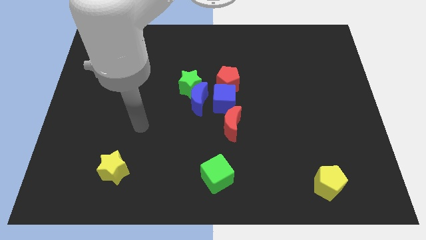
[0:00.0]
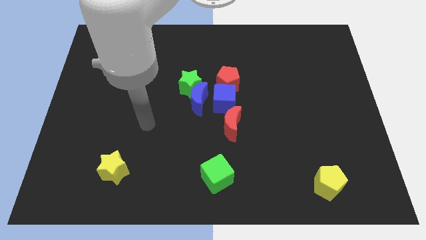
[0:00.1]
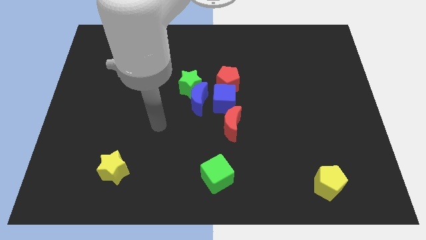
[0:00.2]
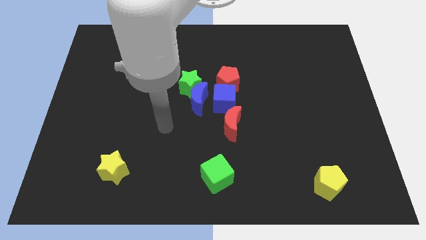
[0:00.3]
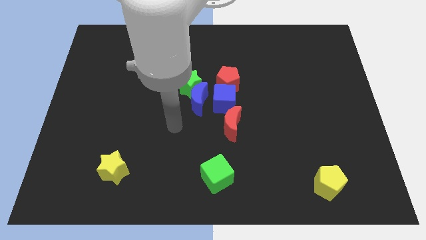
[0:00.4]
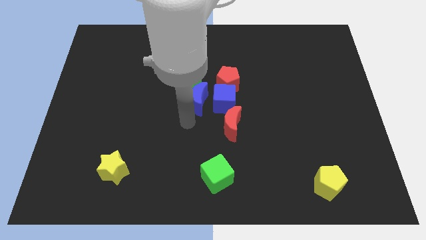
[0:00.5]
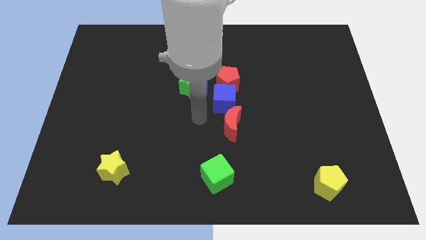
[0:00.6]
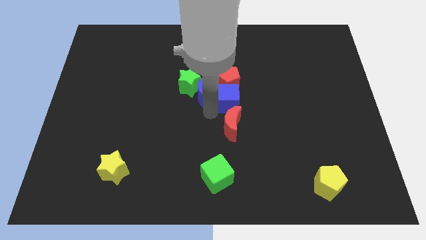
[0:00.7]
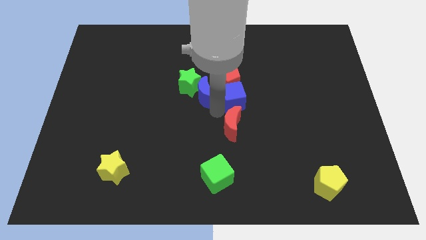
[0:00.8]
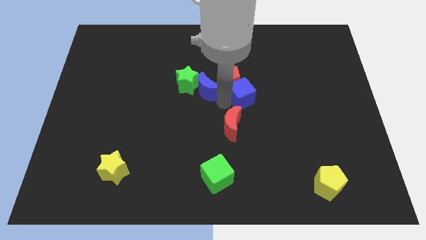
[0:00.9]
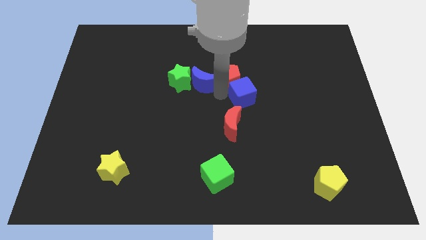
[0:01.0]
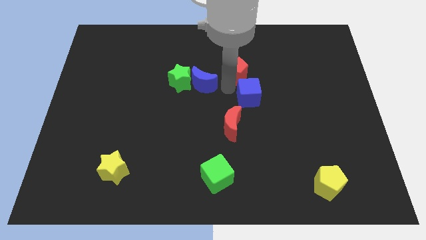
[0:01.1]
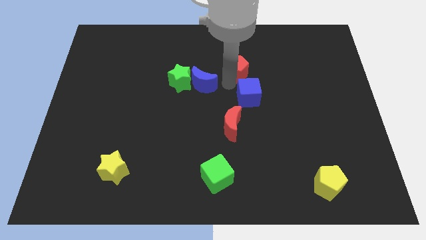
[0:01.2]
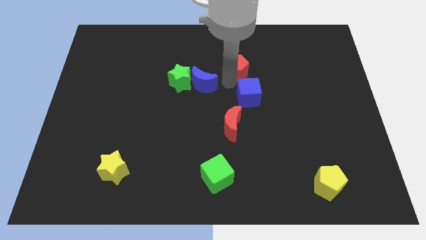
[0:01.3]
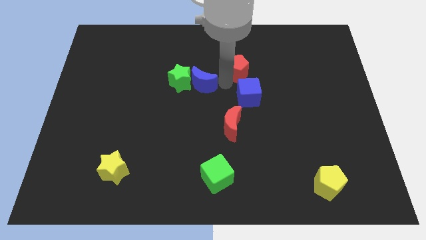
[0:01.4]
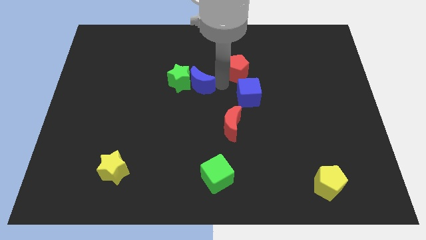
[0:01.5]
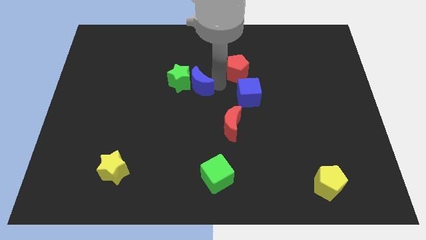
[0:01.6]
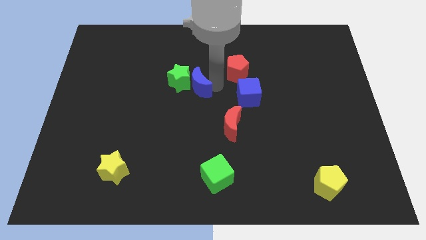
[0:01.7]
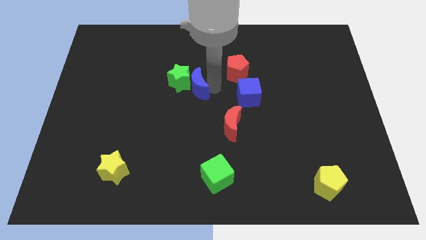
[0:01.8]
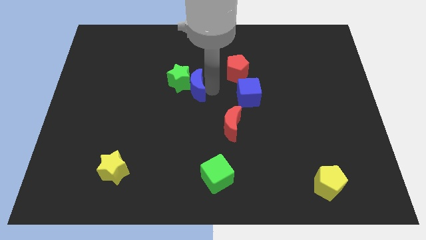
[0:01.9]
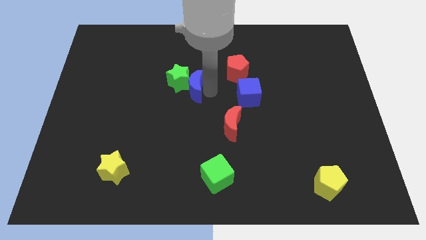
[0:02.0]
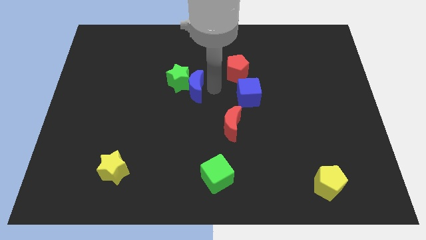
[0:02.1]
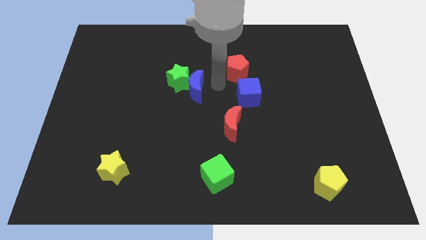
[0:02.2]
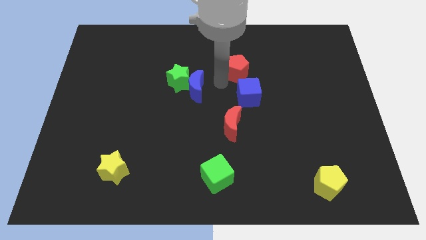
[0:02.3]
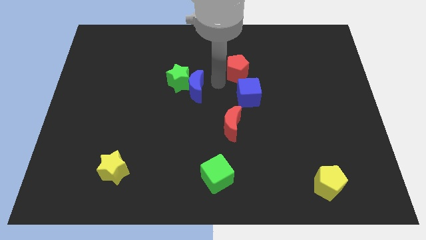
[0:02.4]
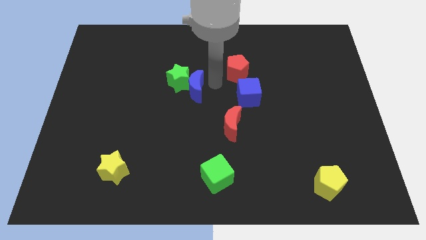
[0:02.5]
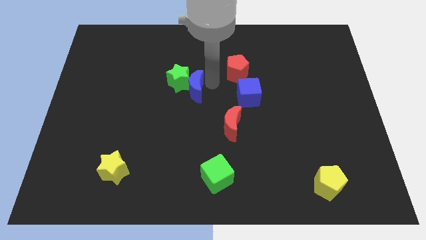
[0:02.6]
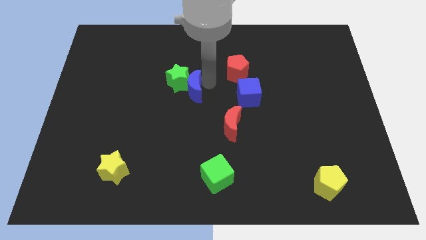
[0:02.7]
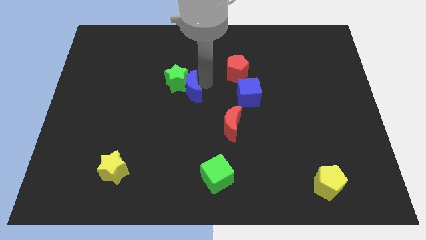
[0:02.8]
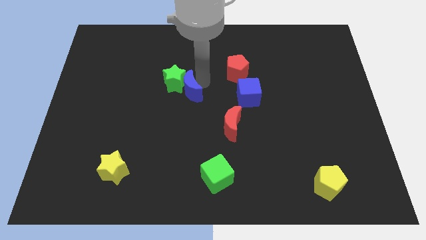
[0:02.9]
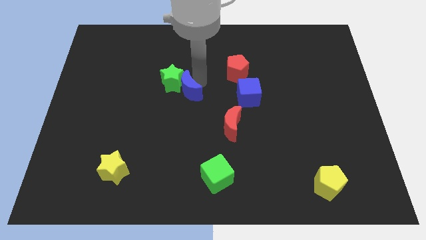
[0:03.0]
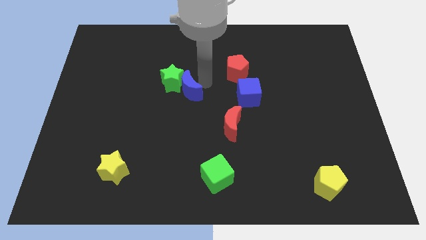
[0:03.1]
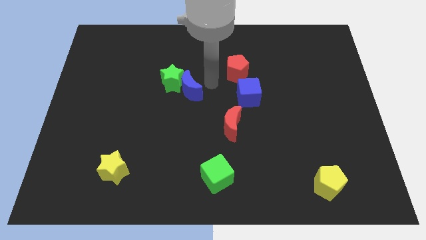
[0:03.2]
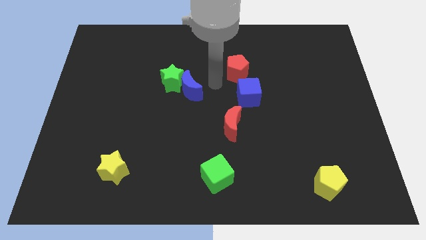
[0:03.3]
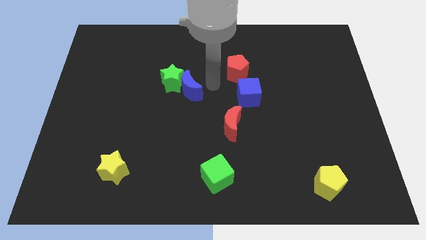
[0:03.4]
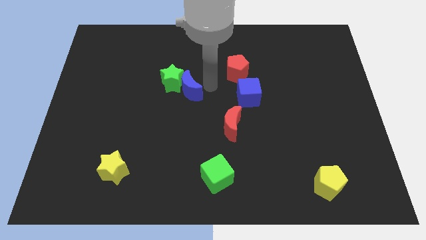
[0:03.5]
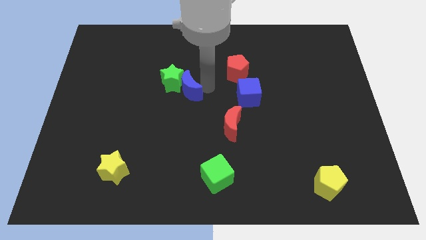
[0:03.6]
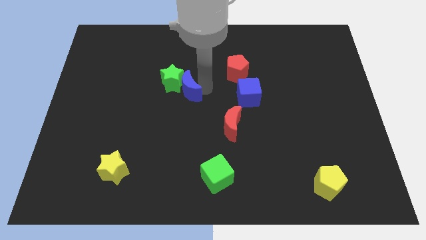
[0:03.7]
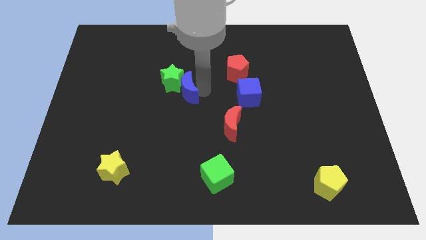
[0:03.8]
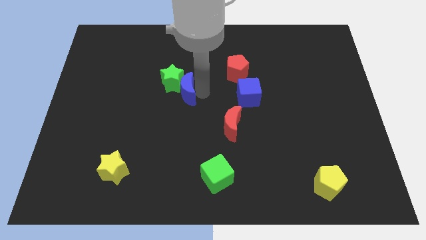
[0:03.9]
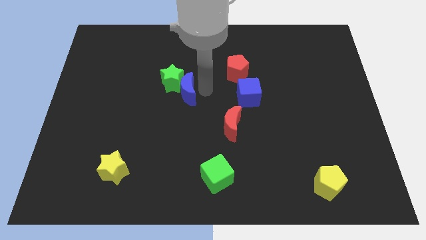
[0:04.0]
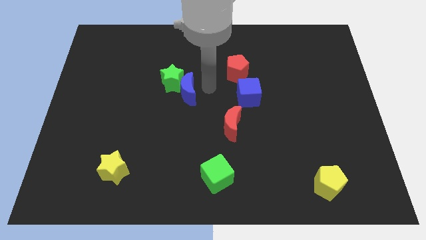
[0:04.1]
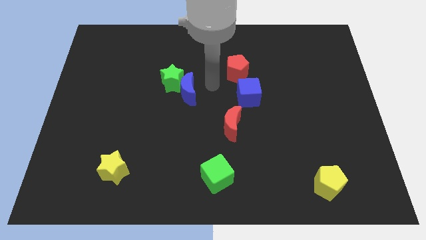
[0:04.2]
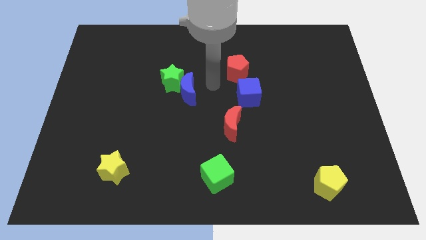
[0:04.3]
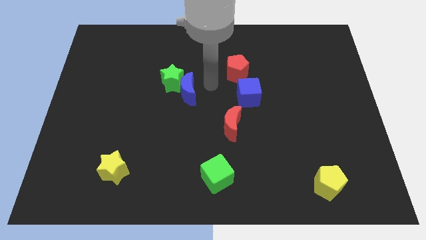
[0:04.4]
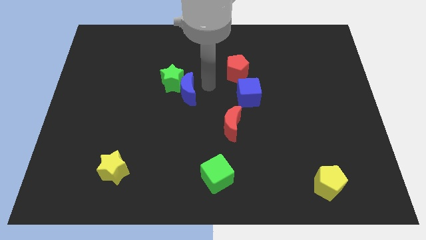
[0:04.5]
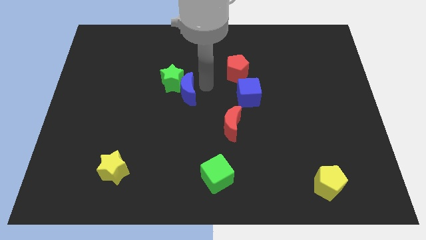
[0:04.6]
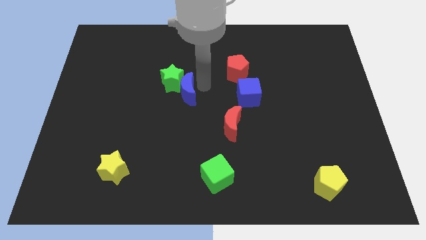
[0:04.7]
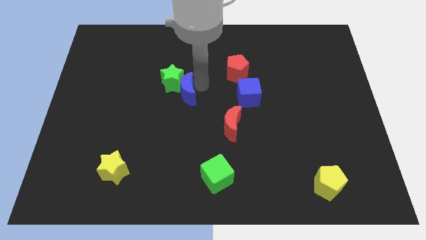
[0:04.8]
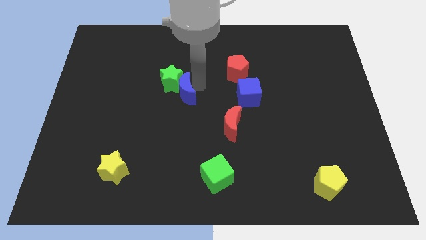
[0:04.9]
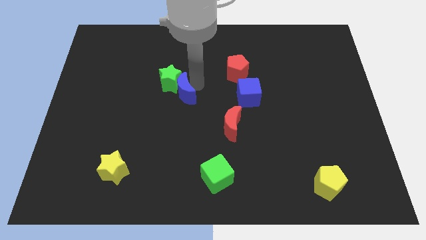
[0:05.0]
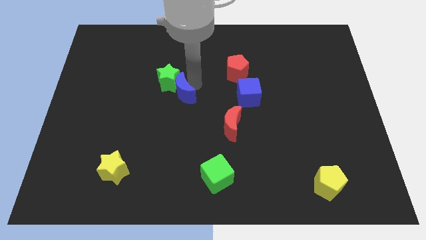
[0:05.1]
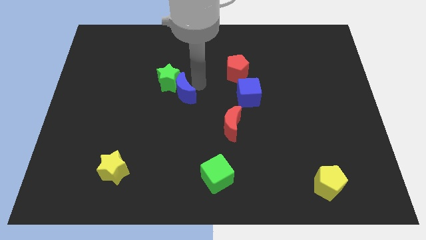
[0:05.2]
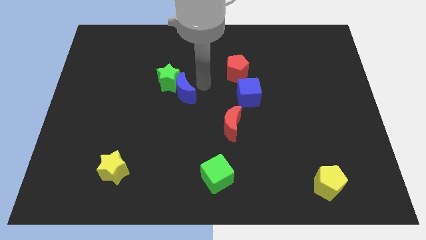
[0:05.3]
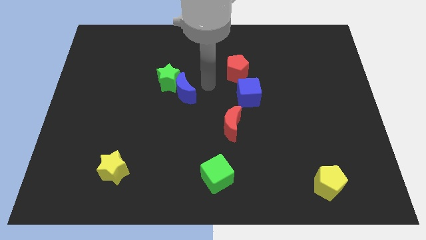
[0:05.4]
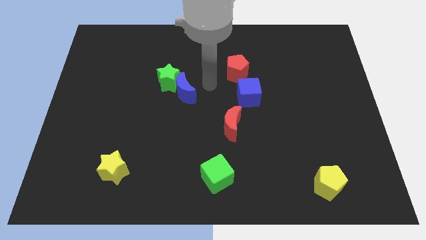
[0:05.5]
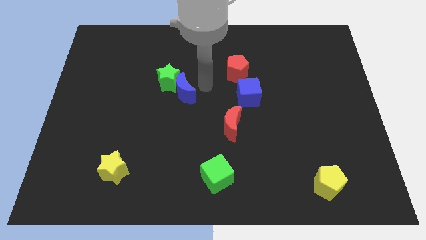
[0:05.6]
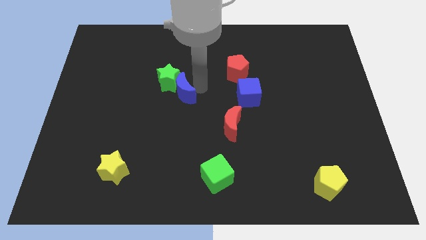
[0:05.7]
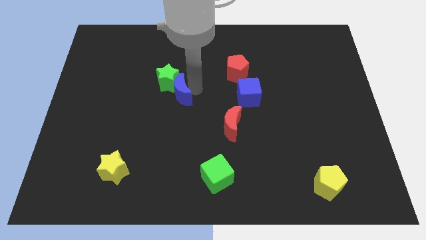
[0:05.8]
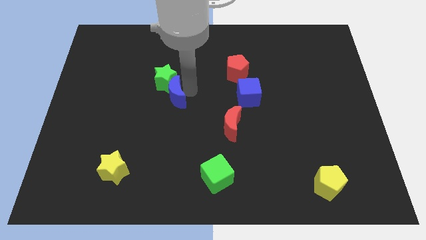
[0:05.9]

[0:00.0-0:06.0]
move the blue moon away from the green star, blue cube, and red pentagon

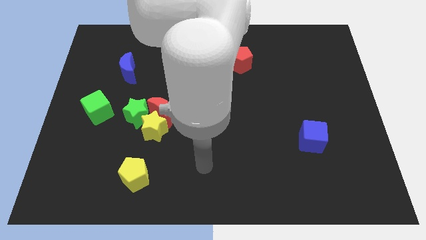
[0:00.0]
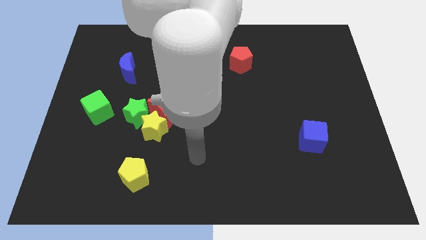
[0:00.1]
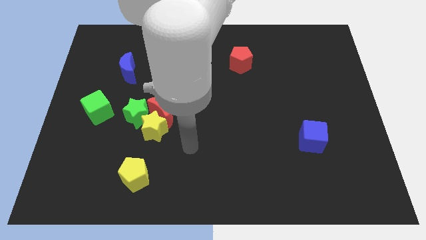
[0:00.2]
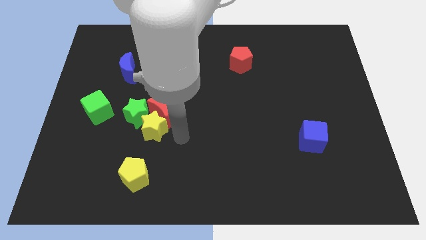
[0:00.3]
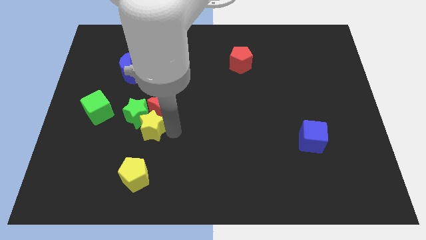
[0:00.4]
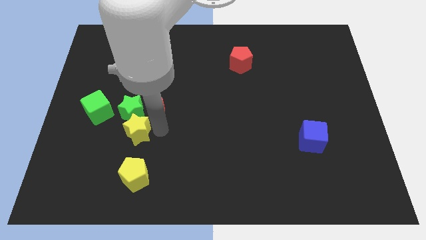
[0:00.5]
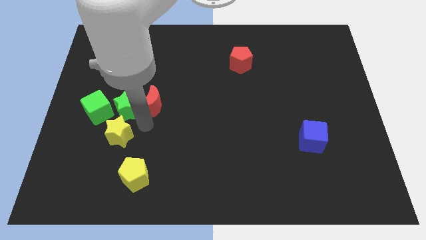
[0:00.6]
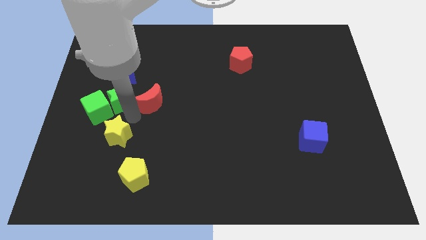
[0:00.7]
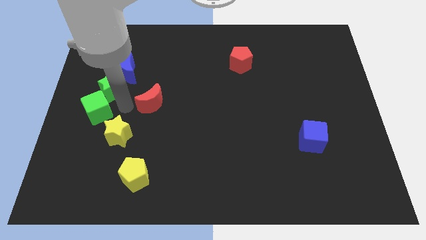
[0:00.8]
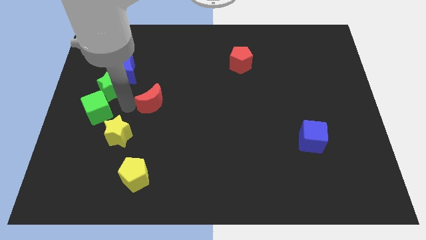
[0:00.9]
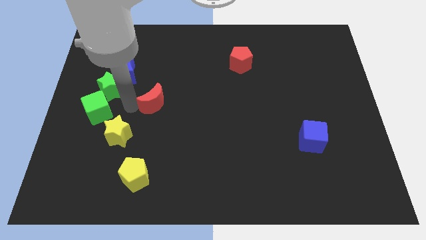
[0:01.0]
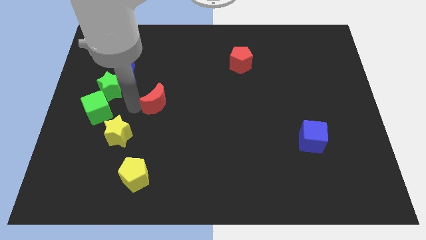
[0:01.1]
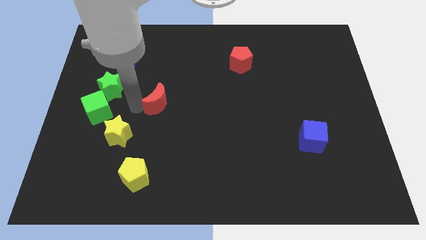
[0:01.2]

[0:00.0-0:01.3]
separate the red moon from the yellow star and green star

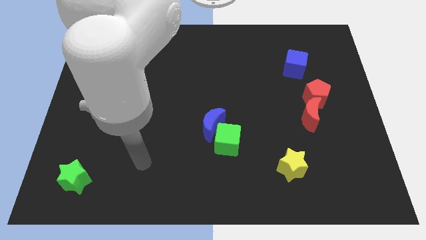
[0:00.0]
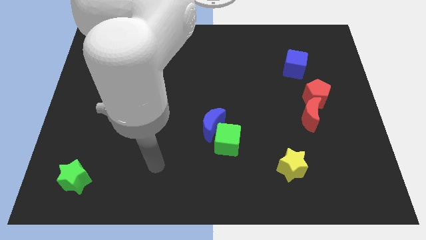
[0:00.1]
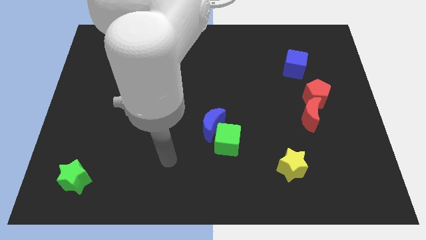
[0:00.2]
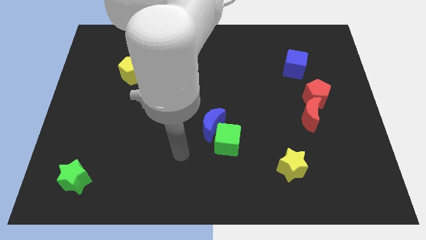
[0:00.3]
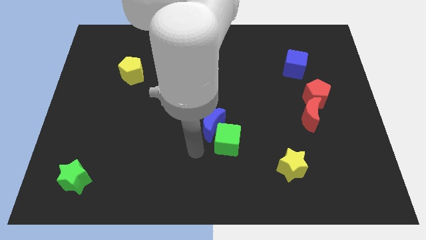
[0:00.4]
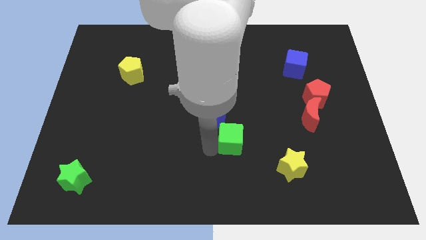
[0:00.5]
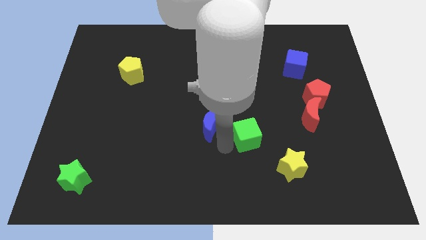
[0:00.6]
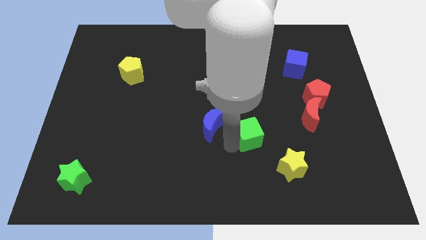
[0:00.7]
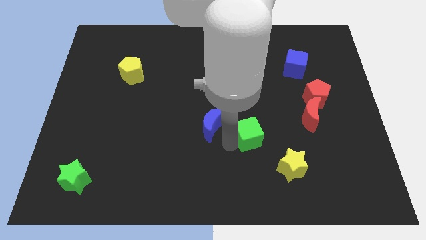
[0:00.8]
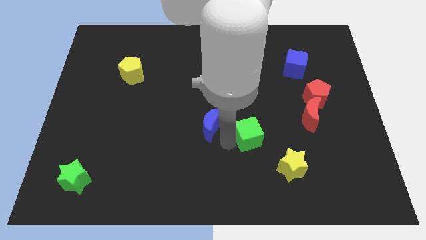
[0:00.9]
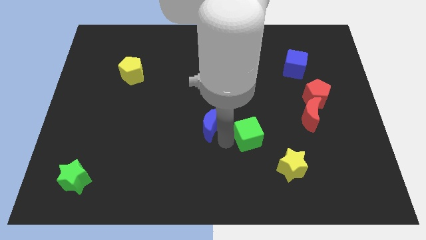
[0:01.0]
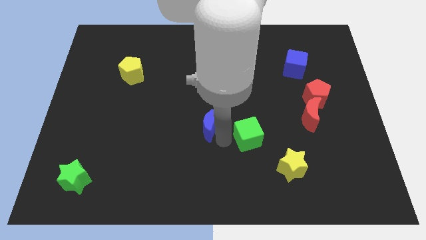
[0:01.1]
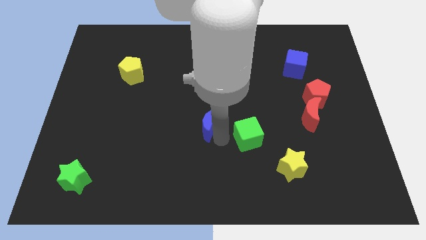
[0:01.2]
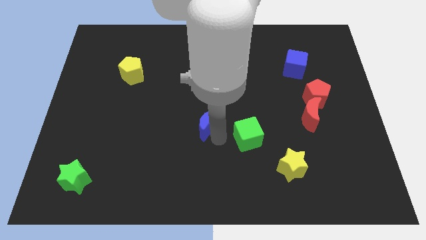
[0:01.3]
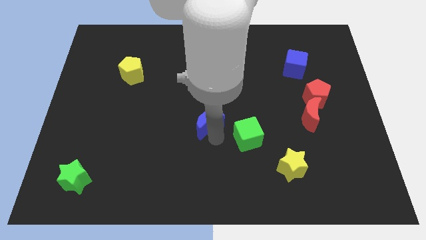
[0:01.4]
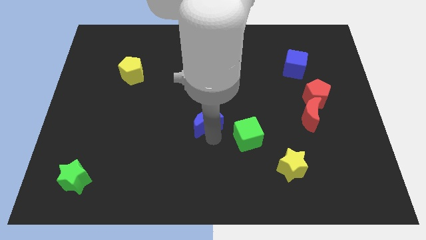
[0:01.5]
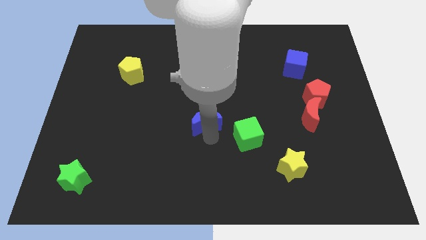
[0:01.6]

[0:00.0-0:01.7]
move the blue moon away from the green cube

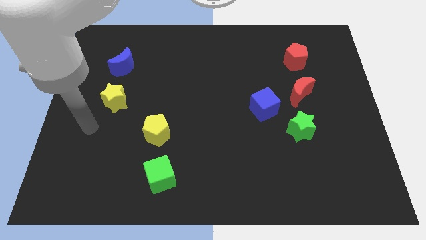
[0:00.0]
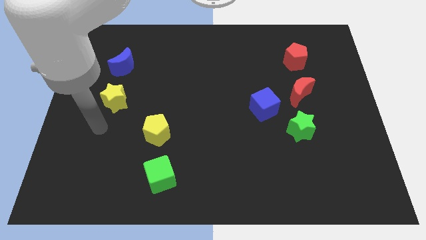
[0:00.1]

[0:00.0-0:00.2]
separate the red moon from the blue cube

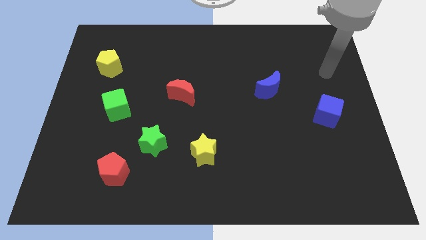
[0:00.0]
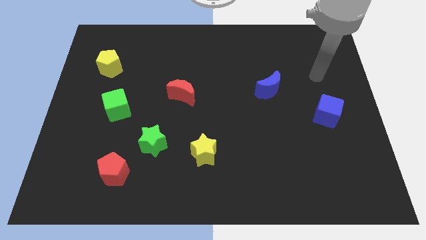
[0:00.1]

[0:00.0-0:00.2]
separate the red pentagon from the green star
